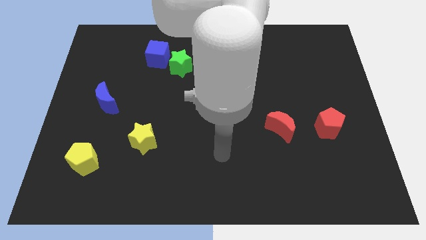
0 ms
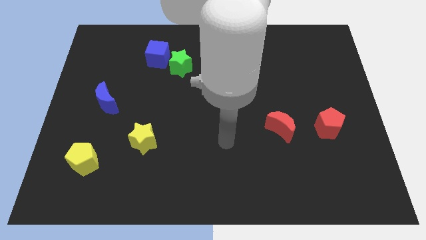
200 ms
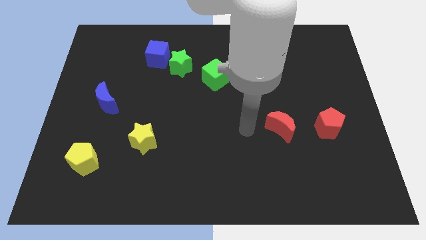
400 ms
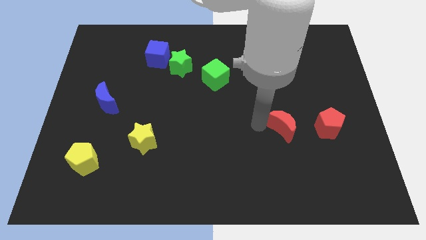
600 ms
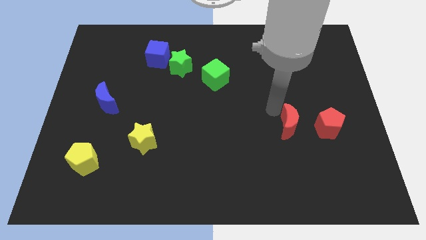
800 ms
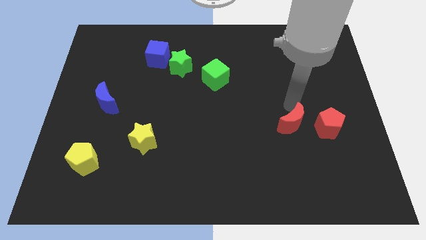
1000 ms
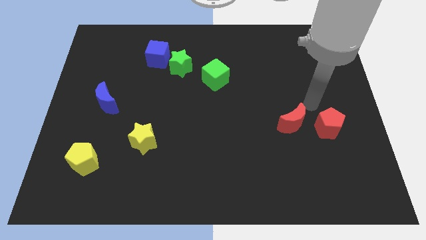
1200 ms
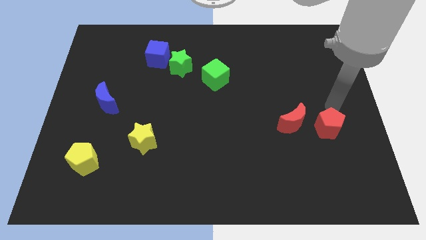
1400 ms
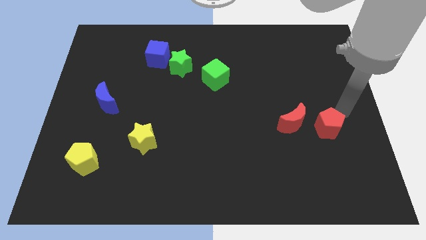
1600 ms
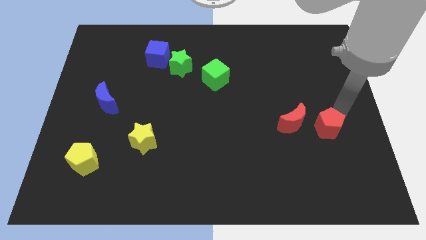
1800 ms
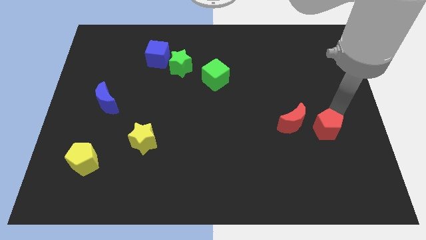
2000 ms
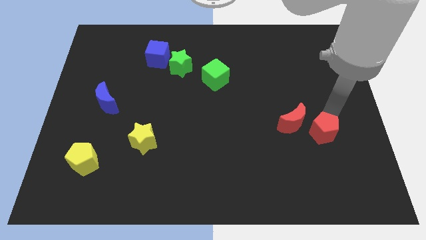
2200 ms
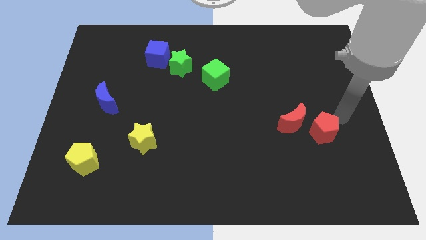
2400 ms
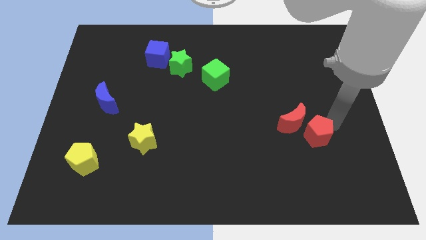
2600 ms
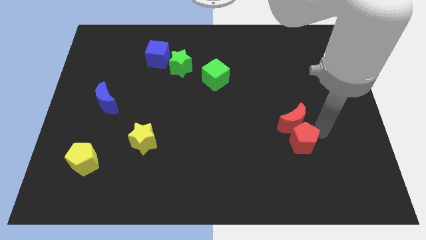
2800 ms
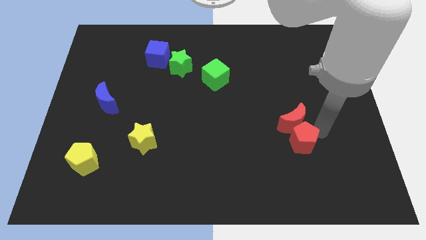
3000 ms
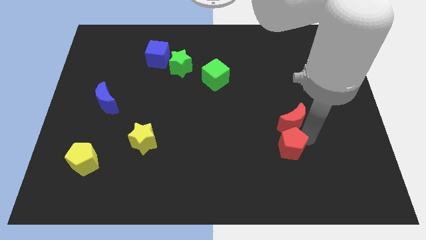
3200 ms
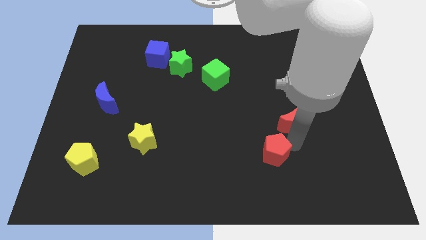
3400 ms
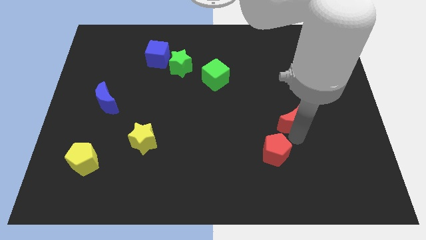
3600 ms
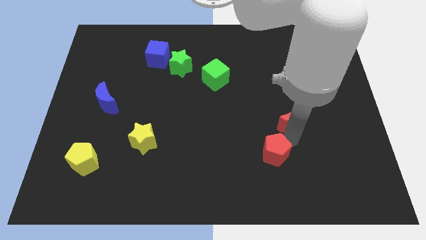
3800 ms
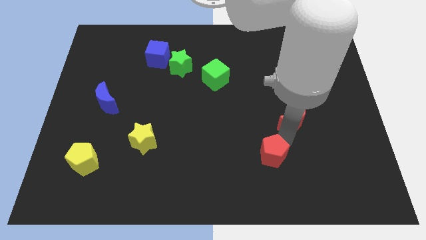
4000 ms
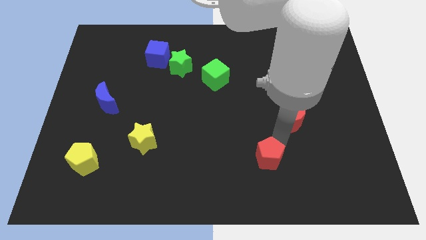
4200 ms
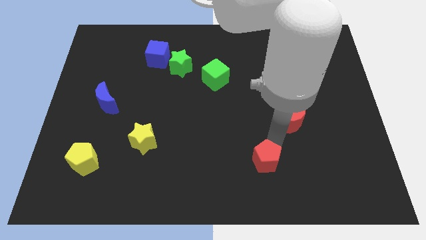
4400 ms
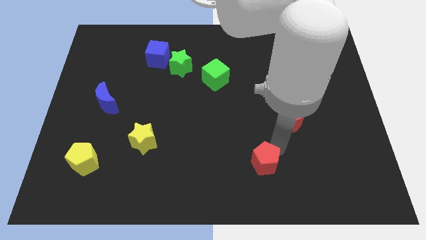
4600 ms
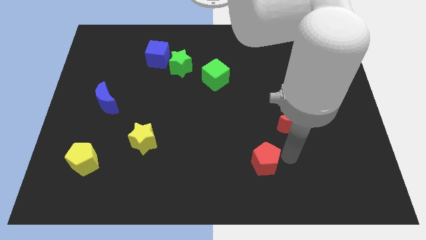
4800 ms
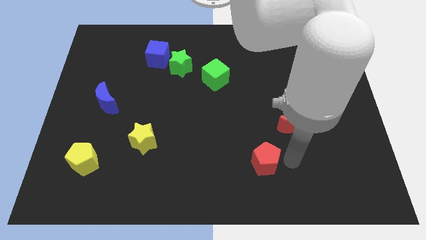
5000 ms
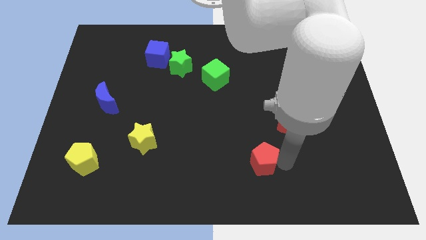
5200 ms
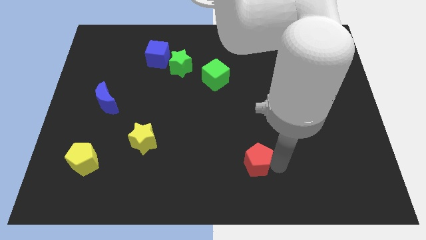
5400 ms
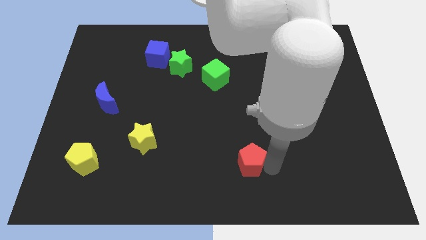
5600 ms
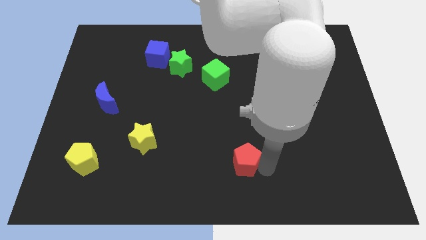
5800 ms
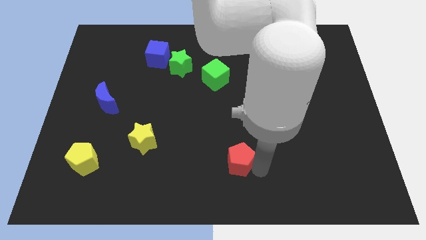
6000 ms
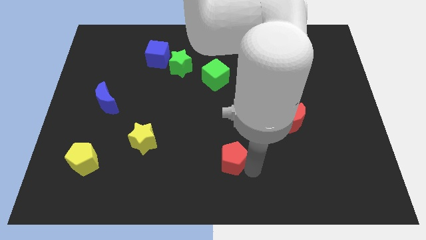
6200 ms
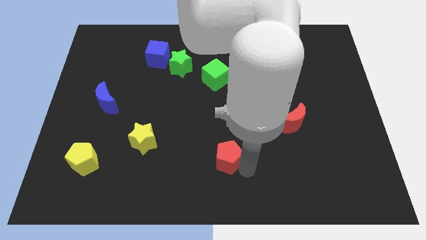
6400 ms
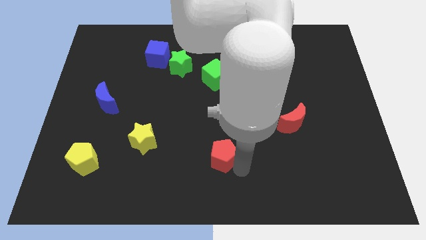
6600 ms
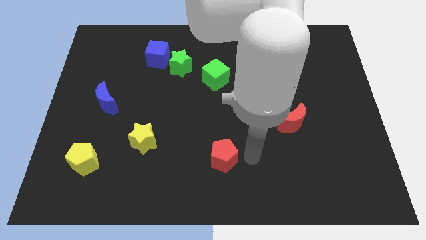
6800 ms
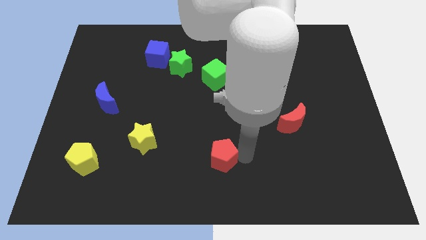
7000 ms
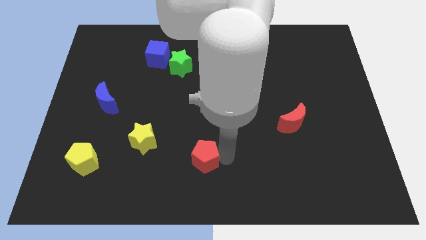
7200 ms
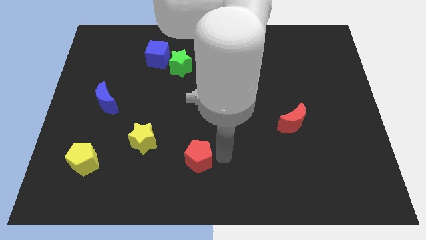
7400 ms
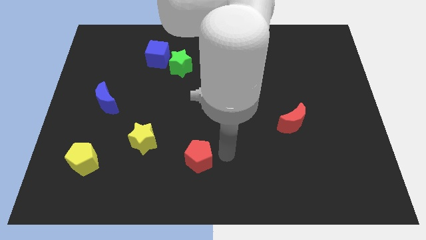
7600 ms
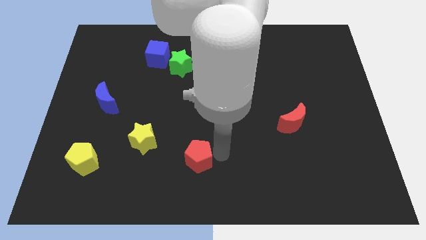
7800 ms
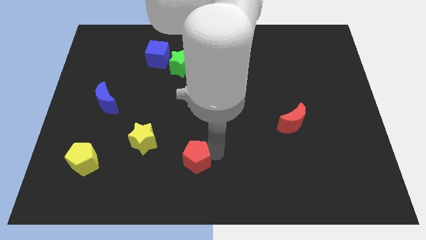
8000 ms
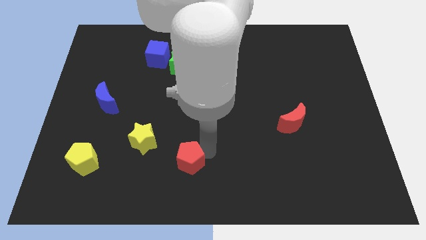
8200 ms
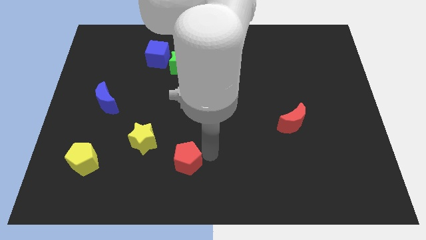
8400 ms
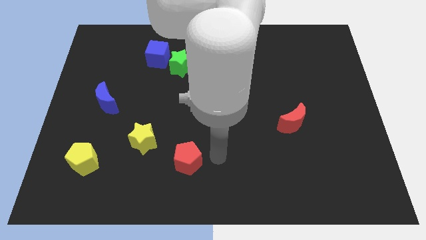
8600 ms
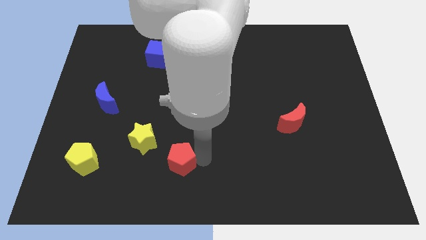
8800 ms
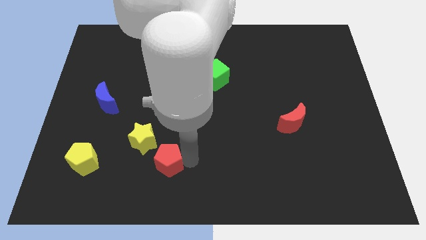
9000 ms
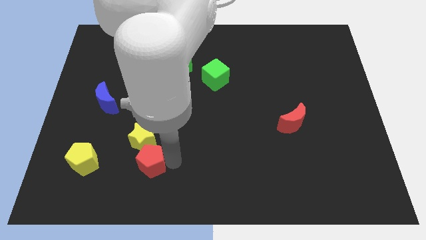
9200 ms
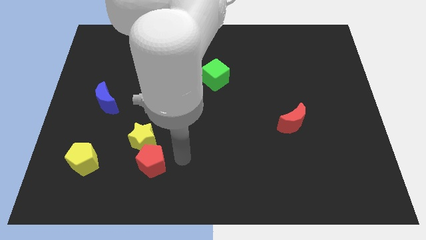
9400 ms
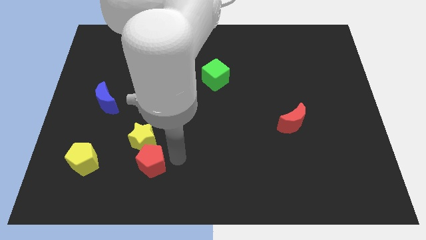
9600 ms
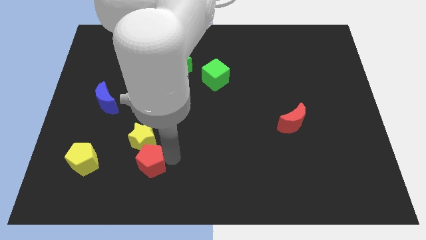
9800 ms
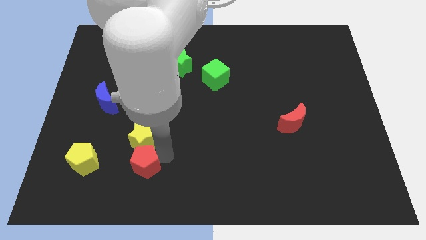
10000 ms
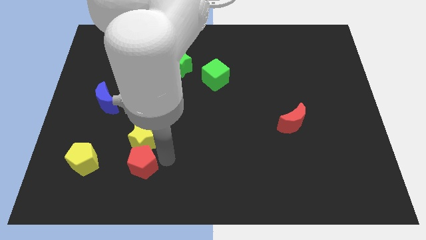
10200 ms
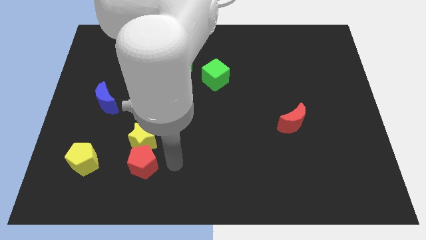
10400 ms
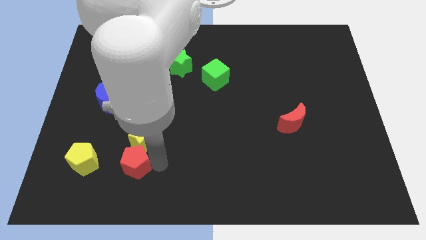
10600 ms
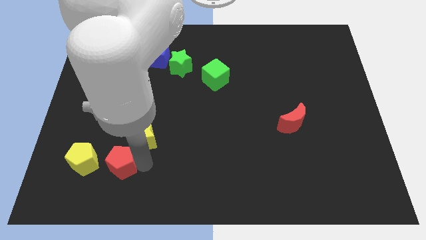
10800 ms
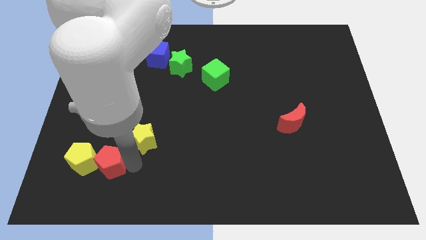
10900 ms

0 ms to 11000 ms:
put the red pentagon to the yellow pentagon
